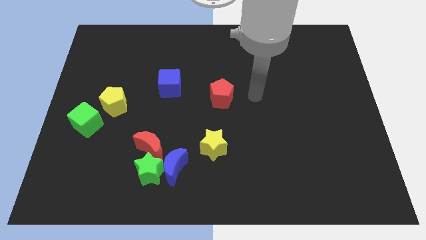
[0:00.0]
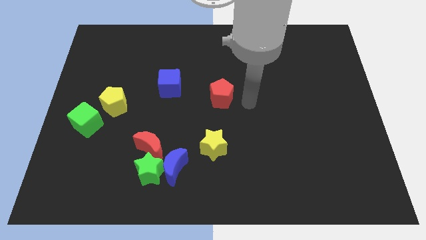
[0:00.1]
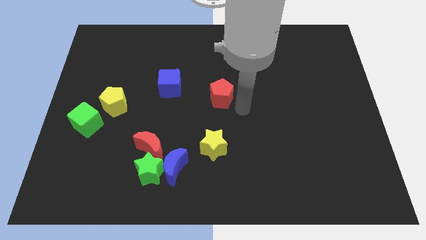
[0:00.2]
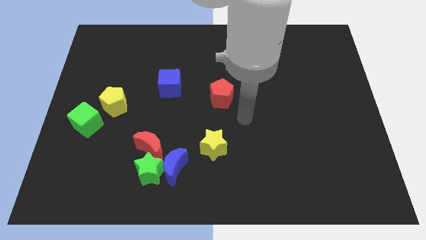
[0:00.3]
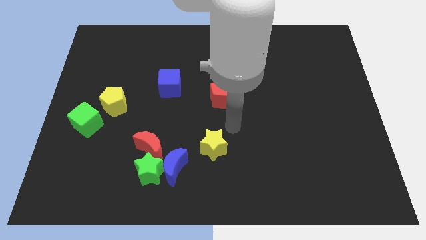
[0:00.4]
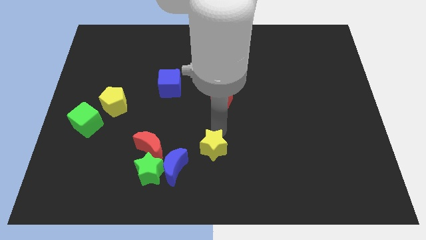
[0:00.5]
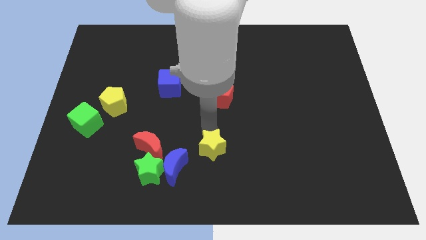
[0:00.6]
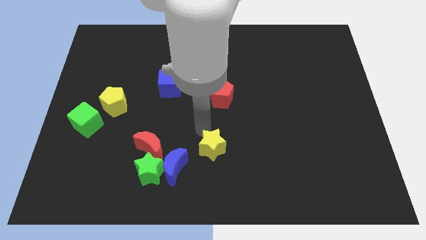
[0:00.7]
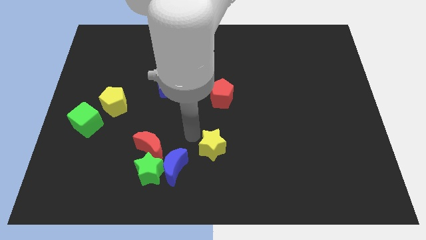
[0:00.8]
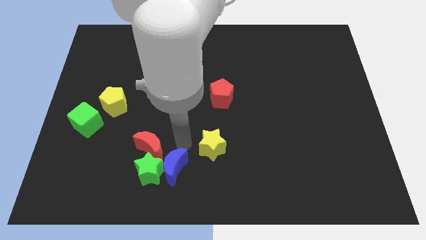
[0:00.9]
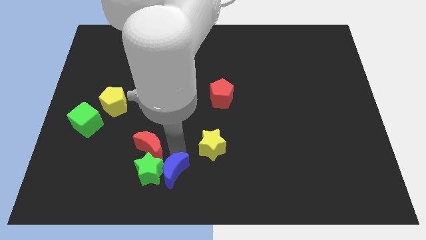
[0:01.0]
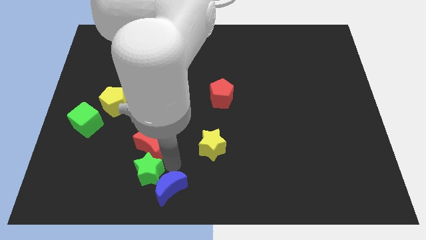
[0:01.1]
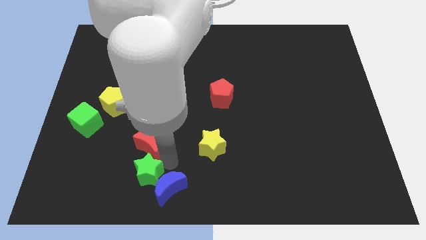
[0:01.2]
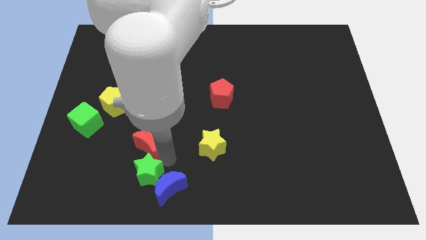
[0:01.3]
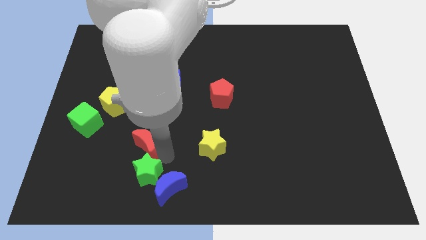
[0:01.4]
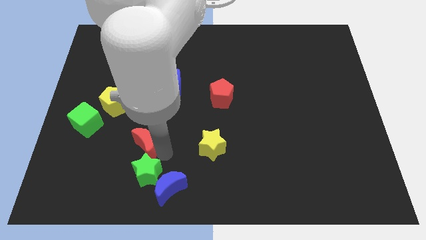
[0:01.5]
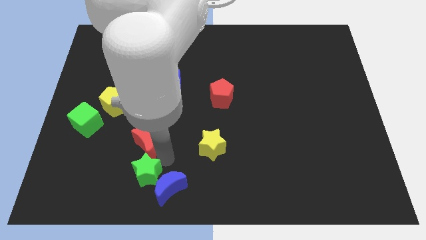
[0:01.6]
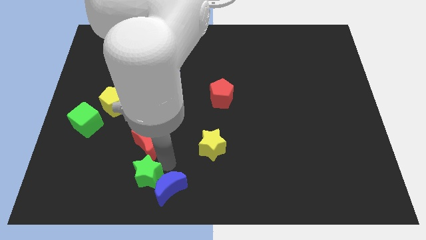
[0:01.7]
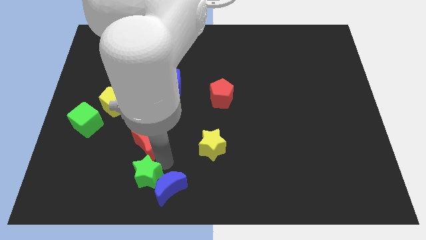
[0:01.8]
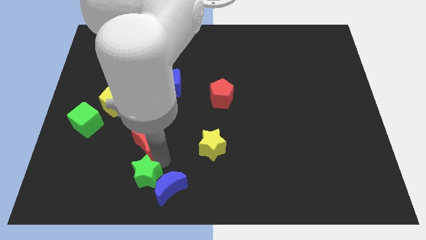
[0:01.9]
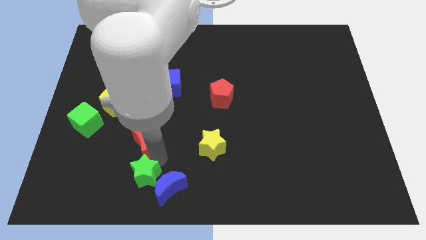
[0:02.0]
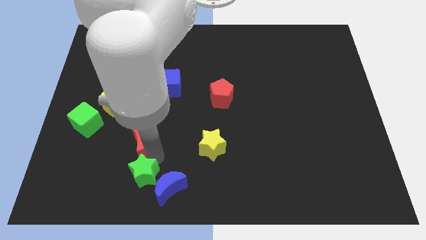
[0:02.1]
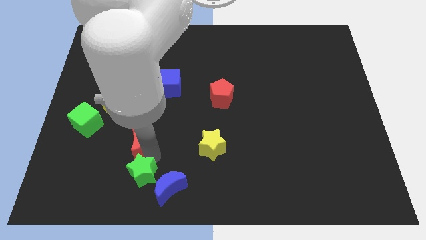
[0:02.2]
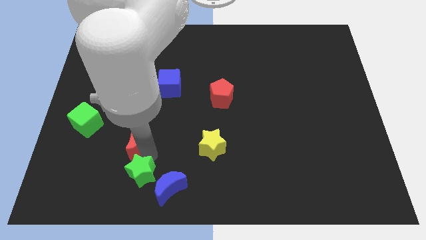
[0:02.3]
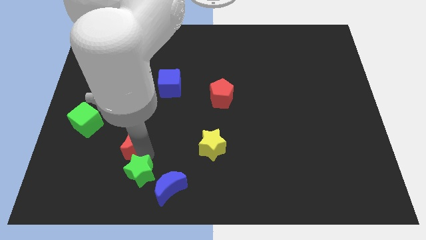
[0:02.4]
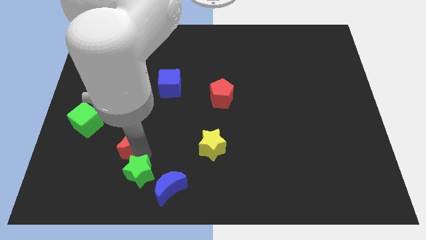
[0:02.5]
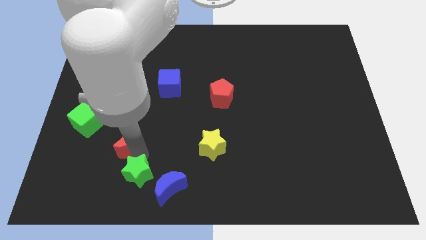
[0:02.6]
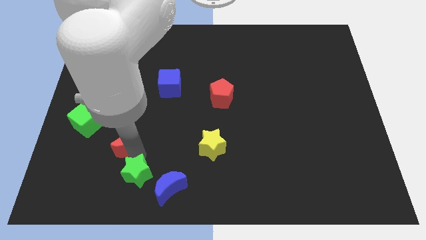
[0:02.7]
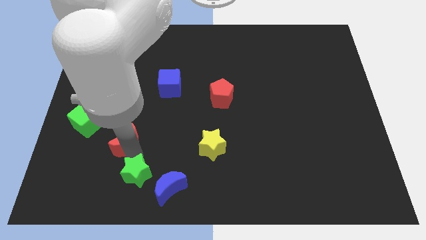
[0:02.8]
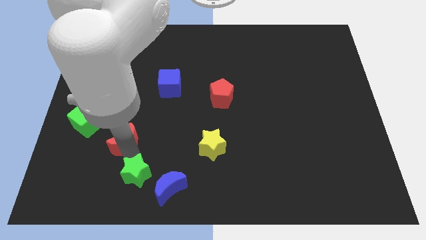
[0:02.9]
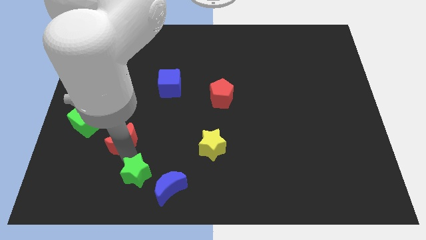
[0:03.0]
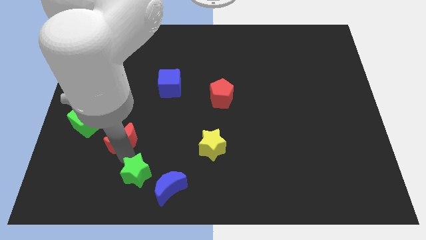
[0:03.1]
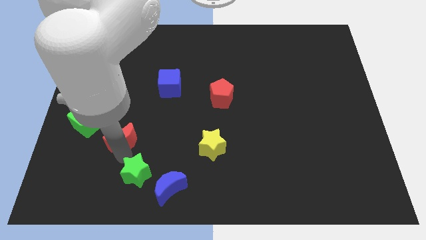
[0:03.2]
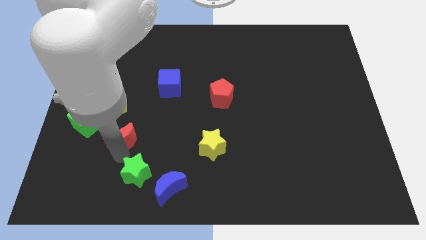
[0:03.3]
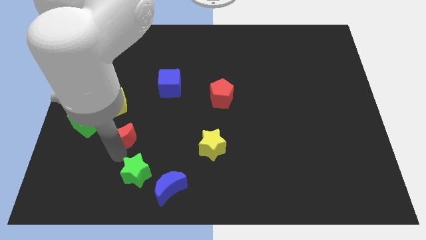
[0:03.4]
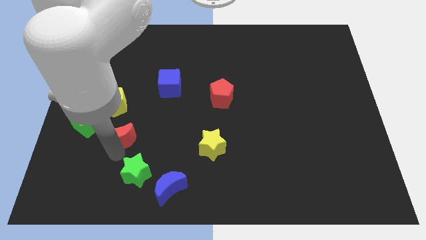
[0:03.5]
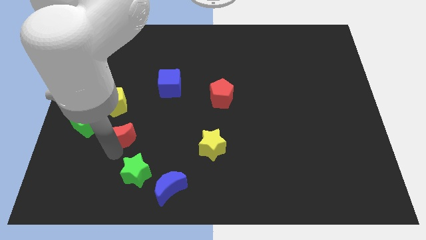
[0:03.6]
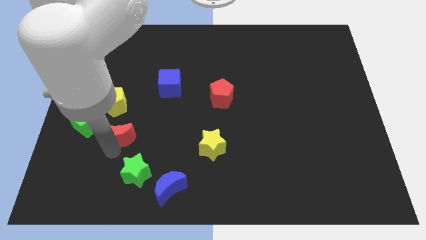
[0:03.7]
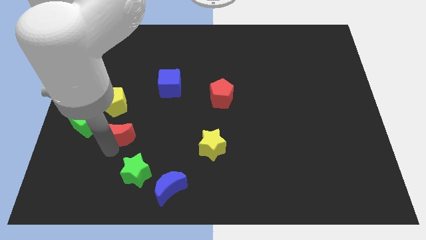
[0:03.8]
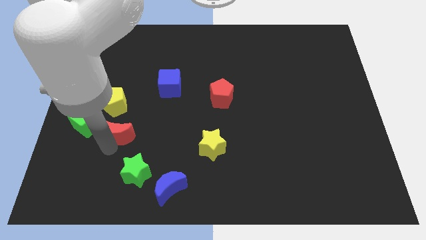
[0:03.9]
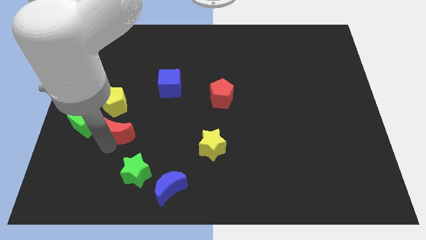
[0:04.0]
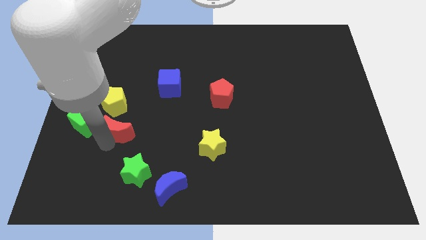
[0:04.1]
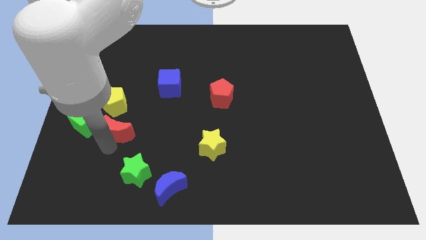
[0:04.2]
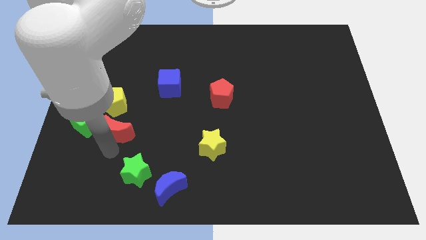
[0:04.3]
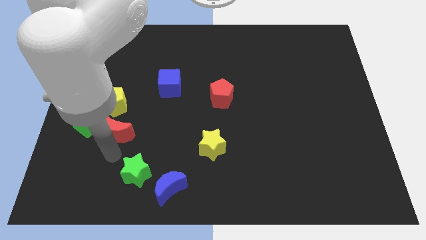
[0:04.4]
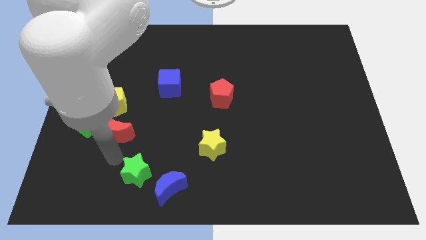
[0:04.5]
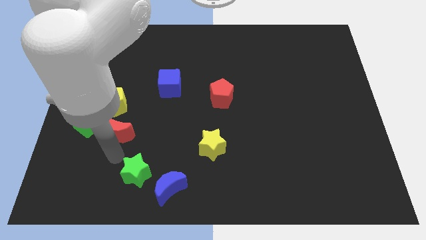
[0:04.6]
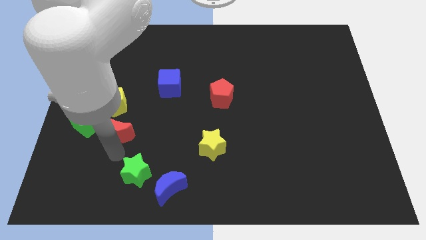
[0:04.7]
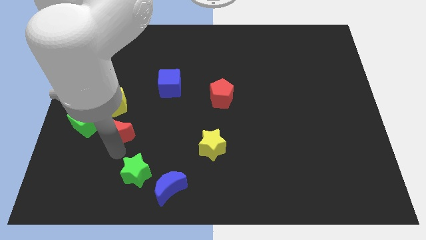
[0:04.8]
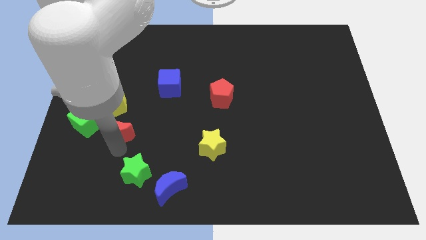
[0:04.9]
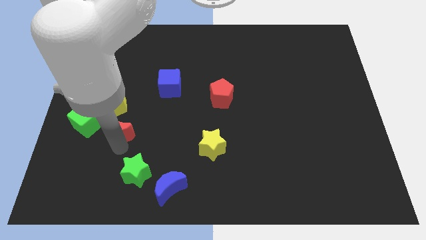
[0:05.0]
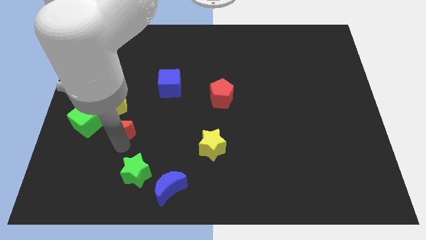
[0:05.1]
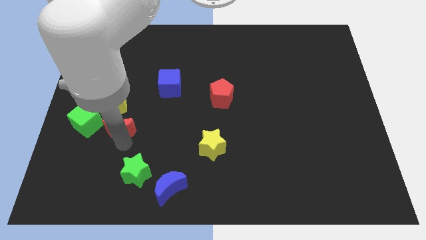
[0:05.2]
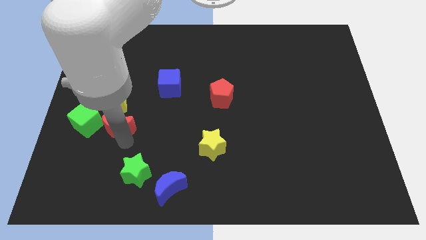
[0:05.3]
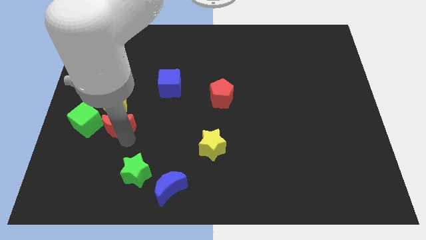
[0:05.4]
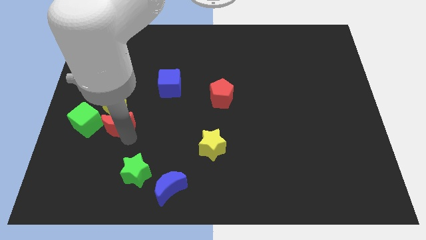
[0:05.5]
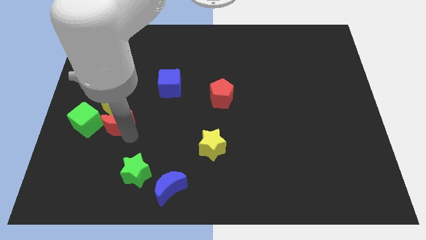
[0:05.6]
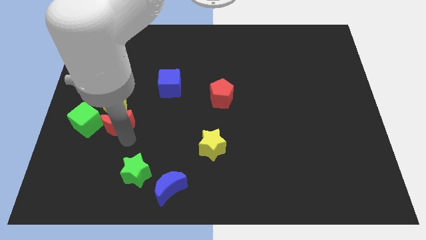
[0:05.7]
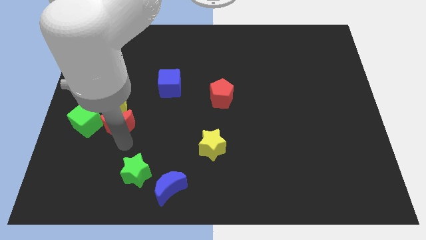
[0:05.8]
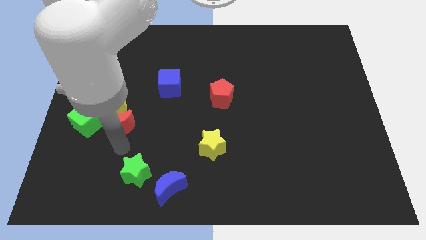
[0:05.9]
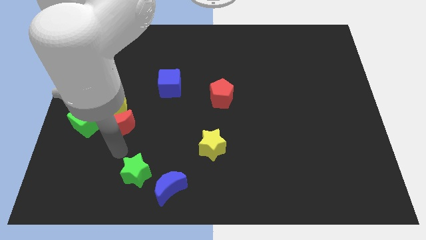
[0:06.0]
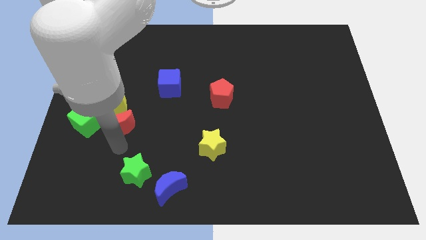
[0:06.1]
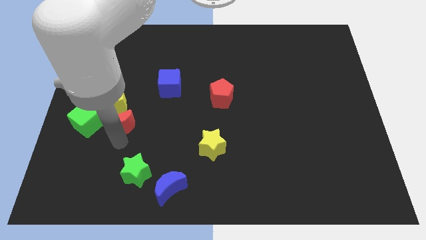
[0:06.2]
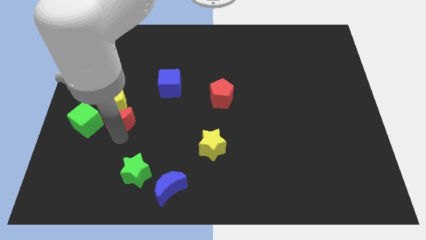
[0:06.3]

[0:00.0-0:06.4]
slide the red moon next to the yellow pentagon

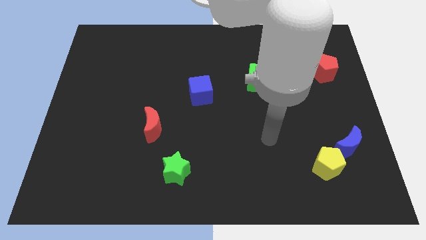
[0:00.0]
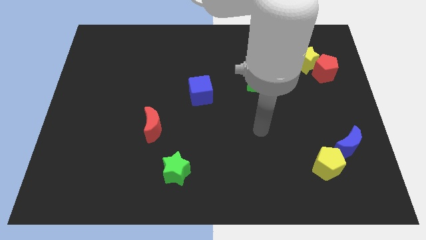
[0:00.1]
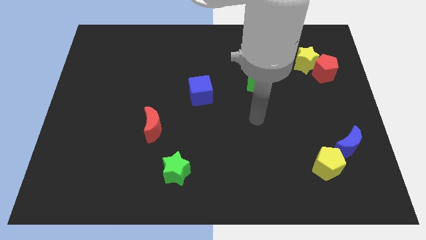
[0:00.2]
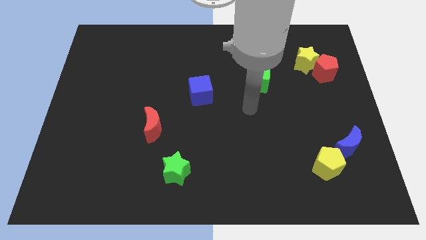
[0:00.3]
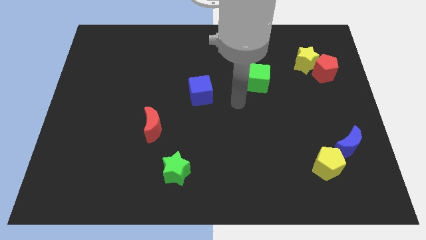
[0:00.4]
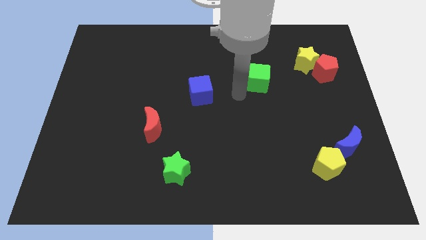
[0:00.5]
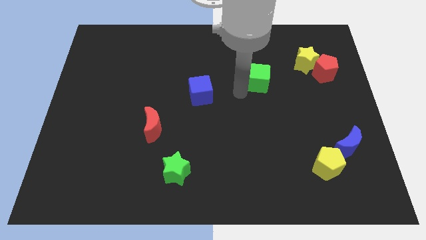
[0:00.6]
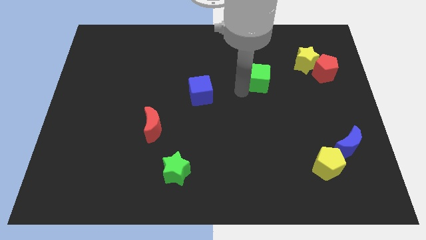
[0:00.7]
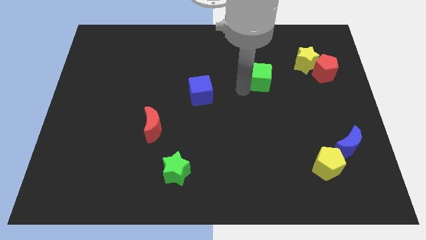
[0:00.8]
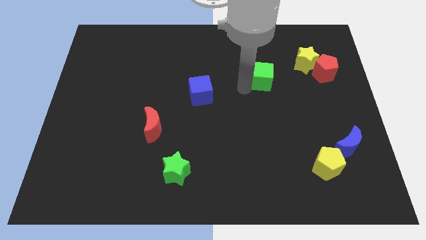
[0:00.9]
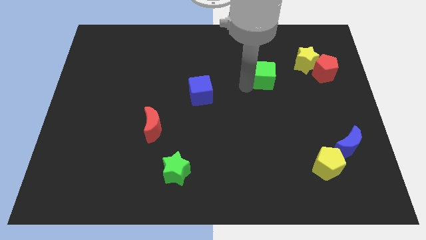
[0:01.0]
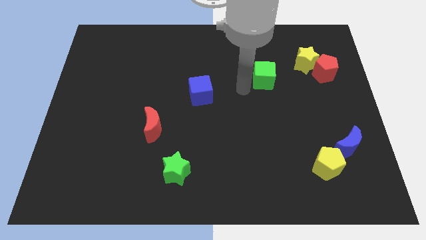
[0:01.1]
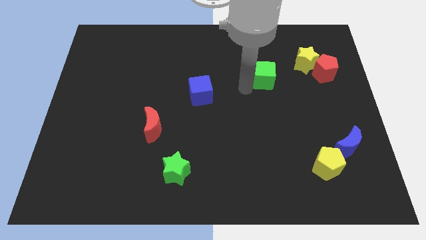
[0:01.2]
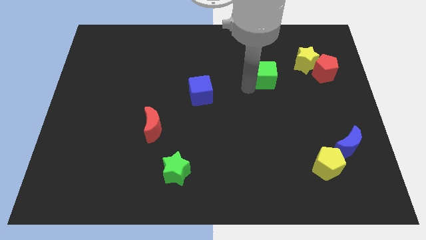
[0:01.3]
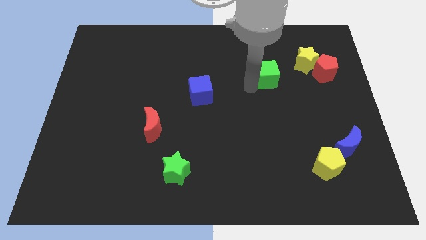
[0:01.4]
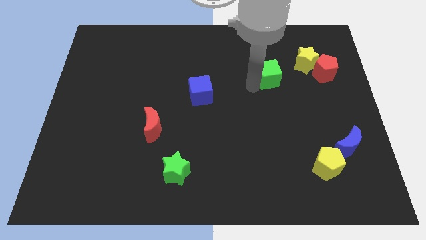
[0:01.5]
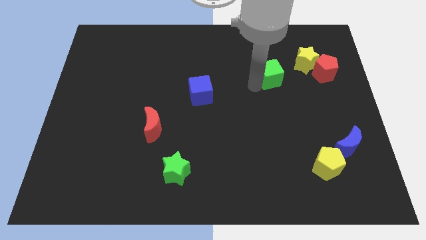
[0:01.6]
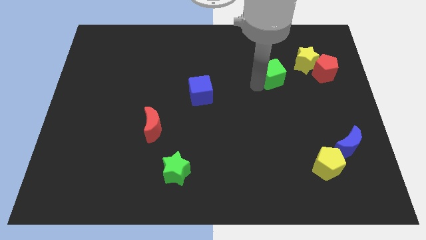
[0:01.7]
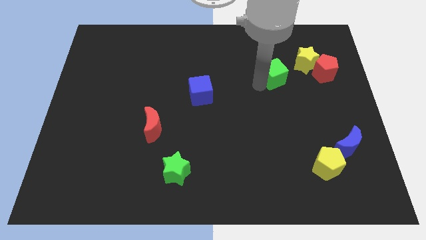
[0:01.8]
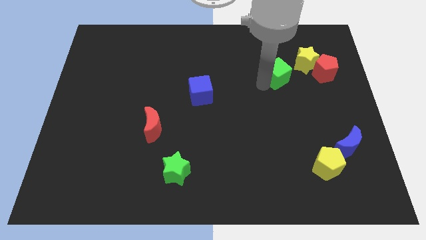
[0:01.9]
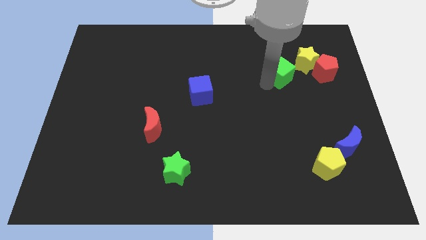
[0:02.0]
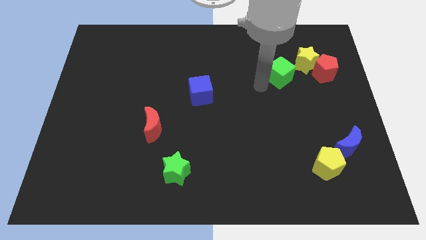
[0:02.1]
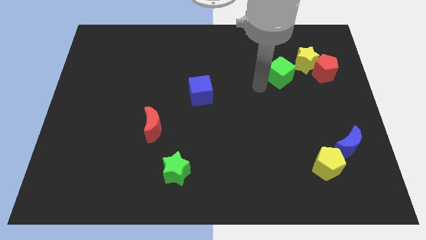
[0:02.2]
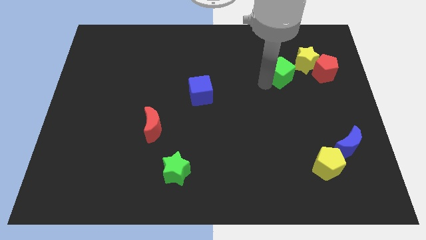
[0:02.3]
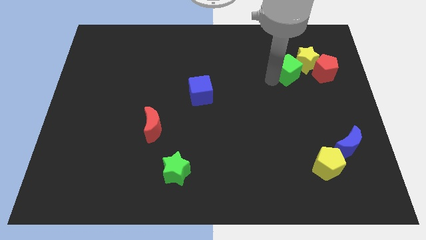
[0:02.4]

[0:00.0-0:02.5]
put the green cube close to the yellow star
